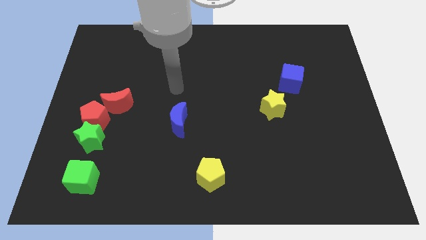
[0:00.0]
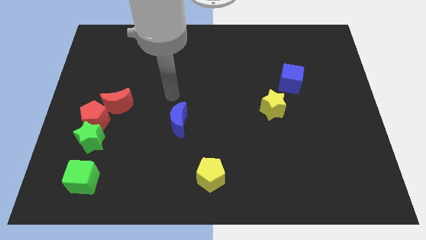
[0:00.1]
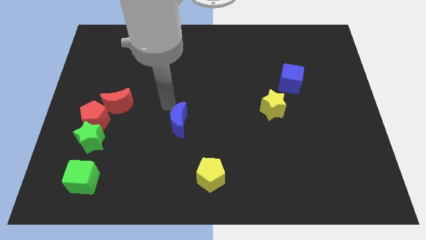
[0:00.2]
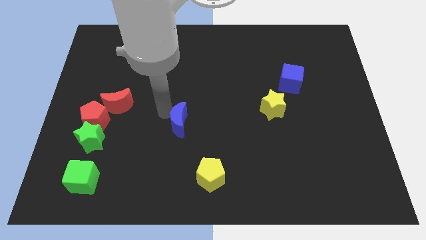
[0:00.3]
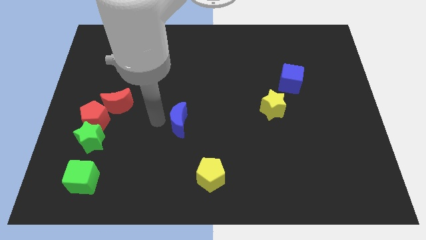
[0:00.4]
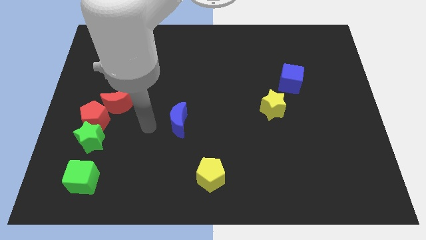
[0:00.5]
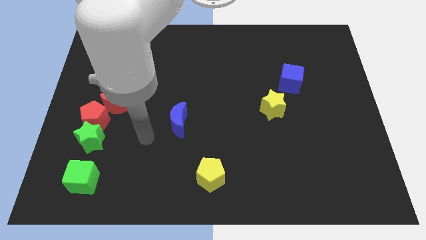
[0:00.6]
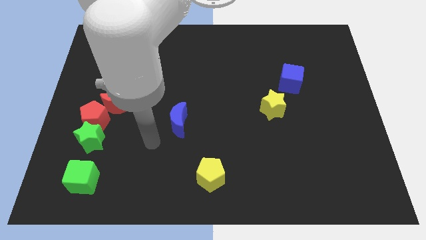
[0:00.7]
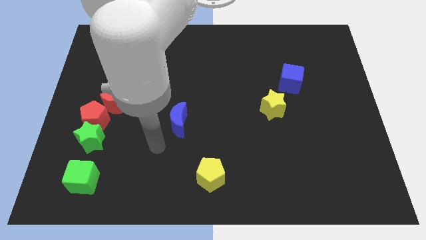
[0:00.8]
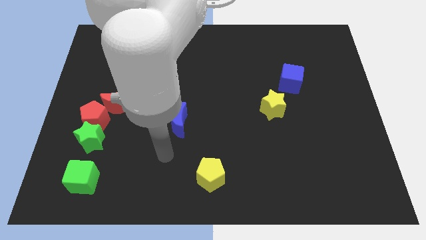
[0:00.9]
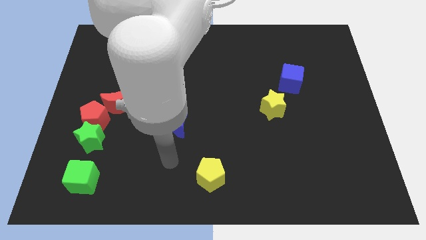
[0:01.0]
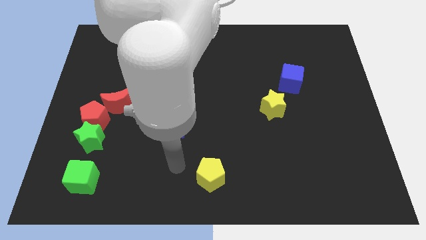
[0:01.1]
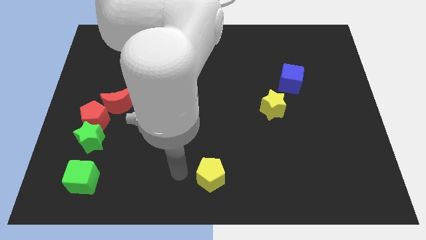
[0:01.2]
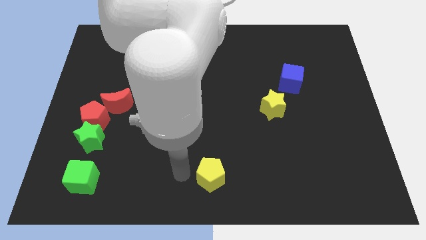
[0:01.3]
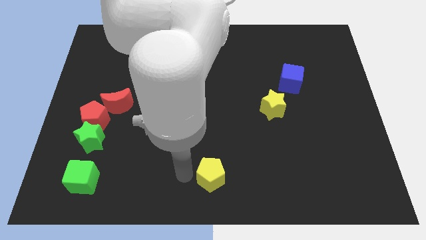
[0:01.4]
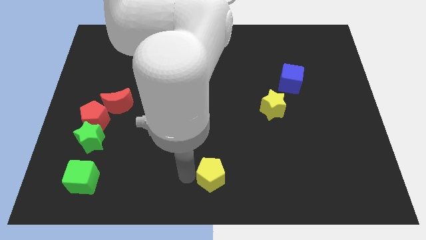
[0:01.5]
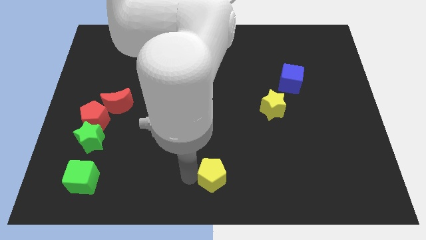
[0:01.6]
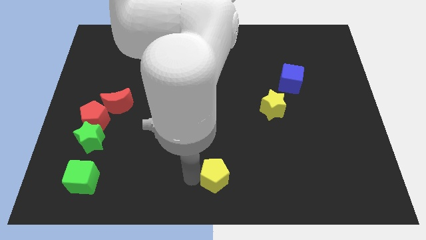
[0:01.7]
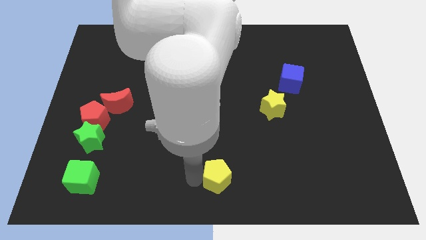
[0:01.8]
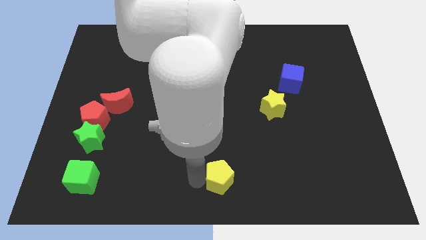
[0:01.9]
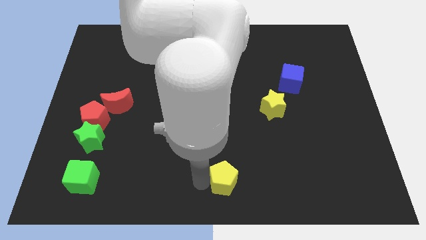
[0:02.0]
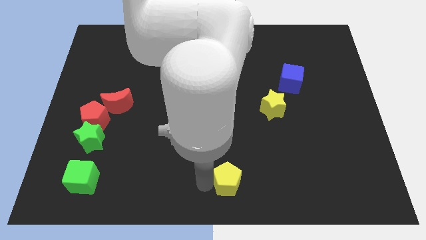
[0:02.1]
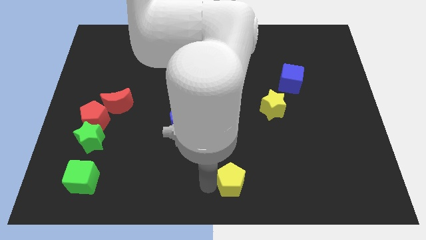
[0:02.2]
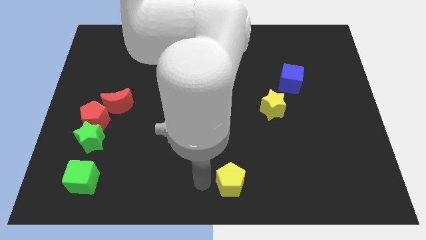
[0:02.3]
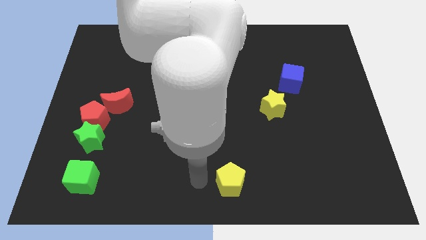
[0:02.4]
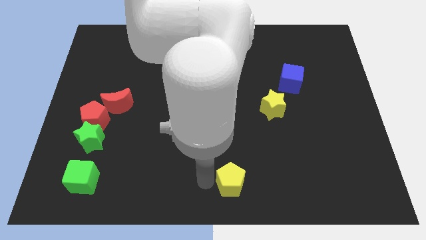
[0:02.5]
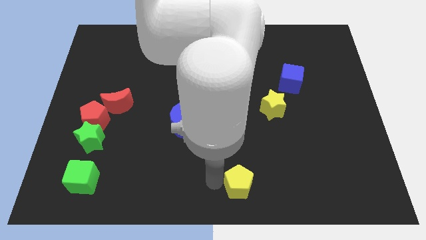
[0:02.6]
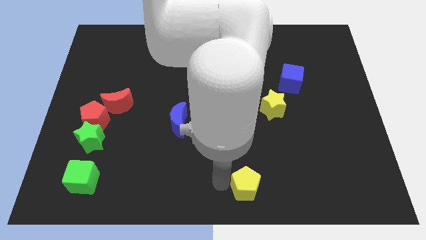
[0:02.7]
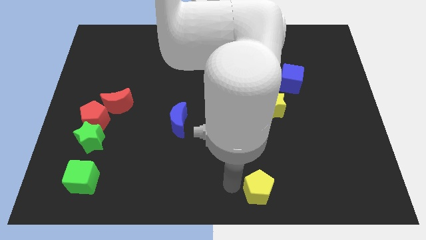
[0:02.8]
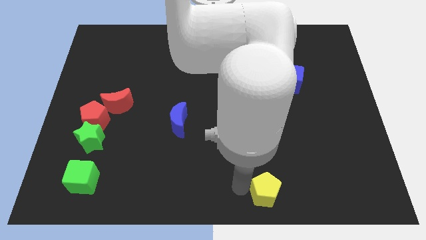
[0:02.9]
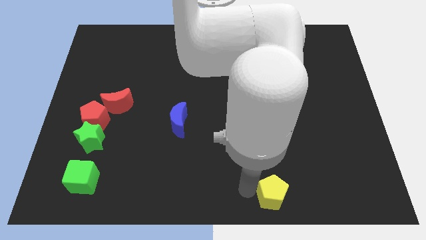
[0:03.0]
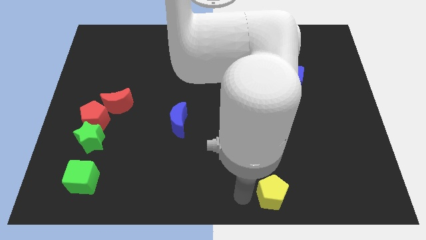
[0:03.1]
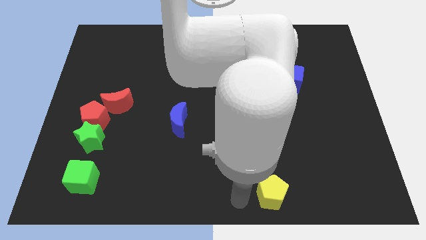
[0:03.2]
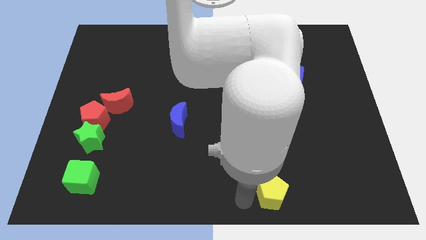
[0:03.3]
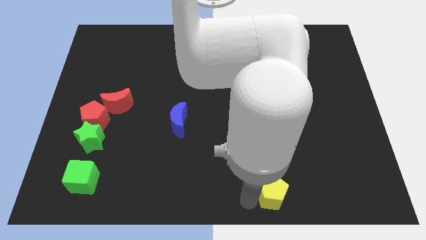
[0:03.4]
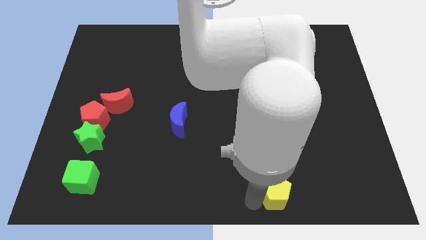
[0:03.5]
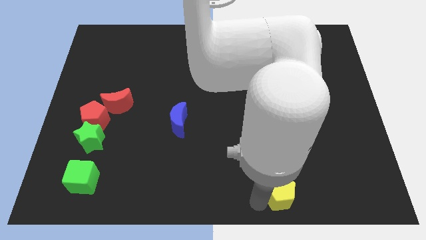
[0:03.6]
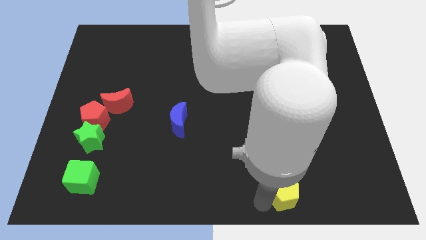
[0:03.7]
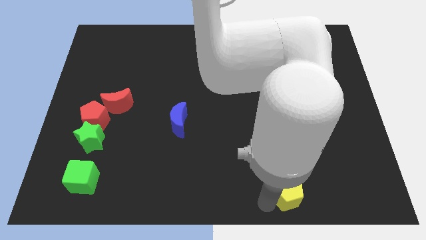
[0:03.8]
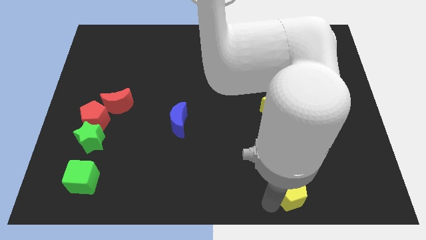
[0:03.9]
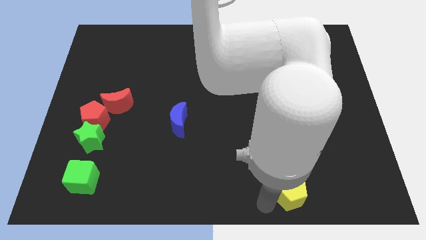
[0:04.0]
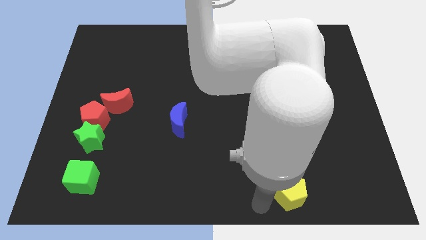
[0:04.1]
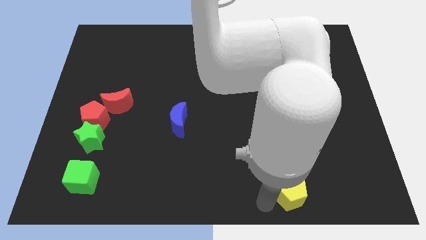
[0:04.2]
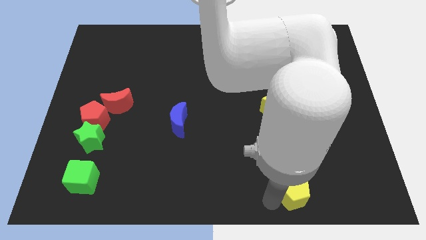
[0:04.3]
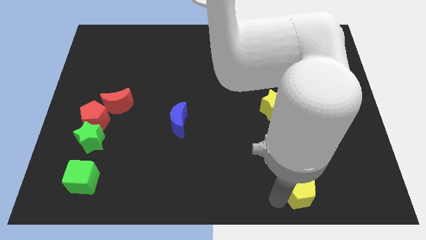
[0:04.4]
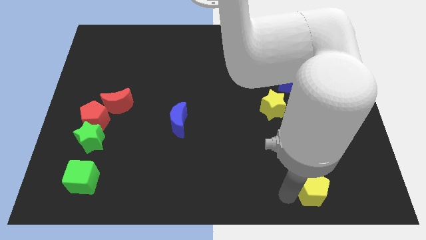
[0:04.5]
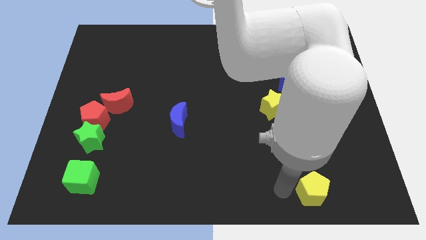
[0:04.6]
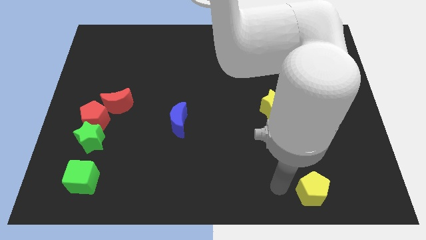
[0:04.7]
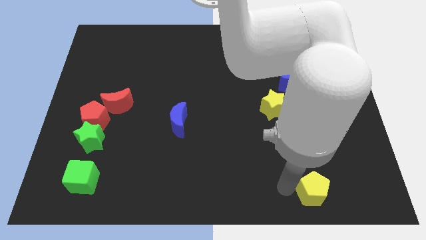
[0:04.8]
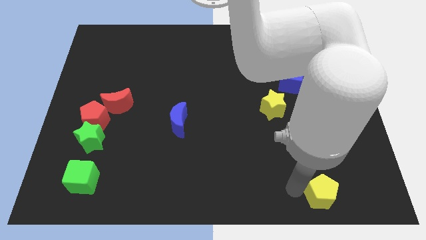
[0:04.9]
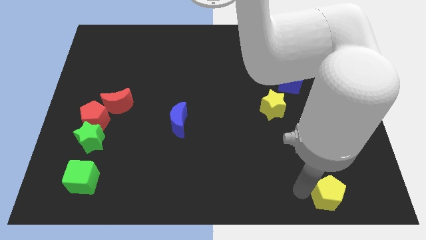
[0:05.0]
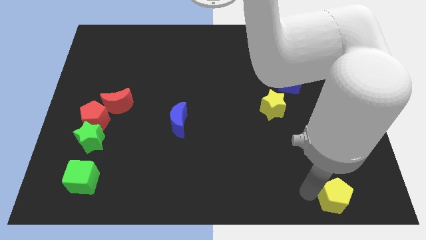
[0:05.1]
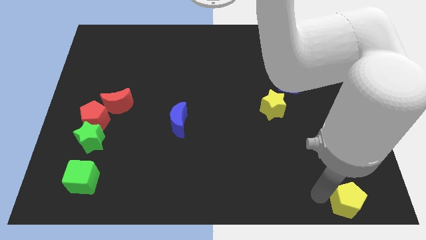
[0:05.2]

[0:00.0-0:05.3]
move the yellow pentagon to the lower right corner
